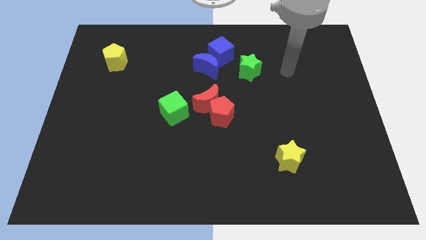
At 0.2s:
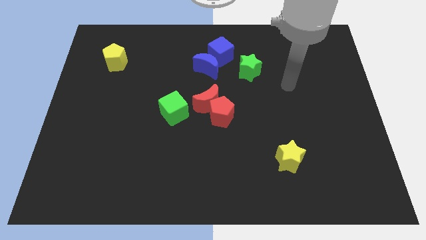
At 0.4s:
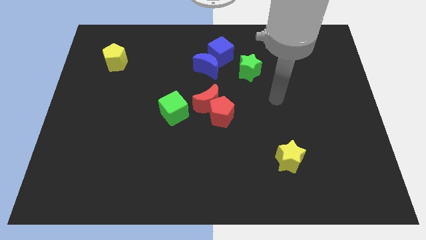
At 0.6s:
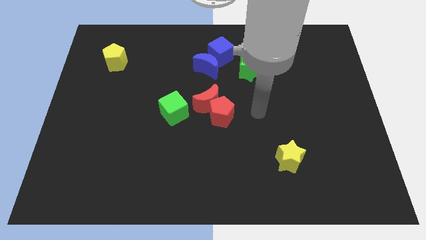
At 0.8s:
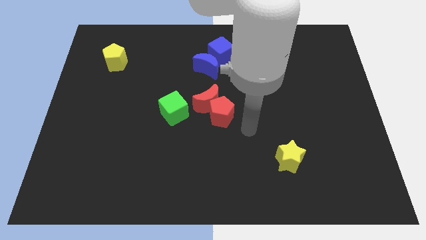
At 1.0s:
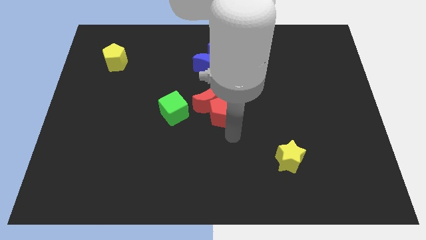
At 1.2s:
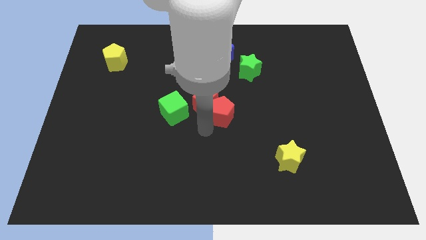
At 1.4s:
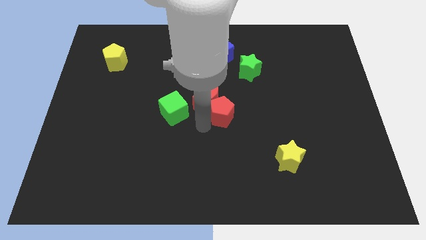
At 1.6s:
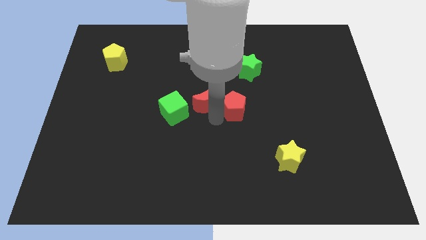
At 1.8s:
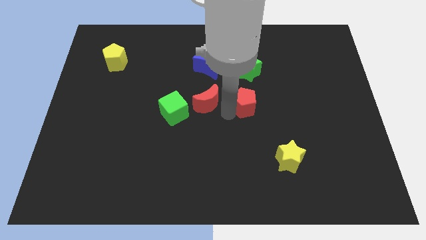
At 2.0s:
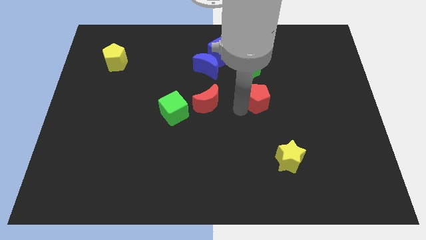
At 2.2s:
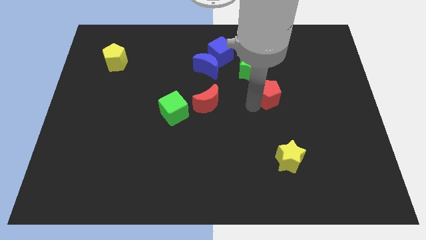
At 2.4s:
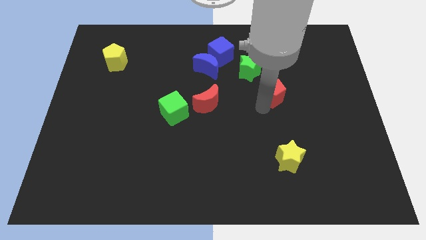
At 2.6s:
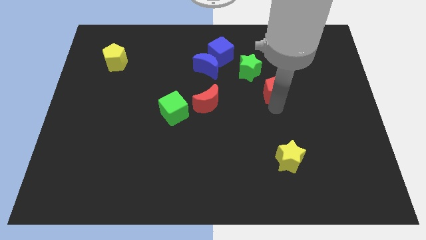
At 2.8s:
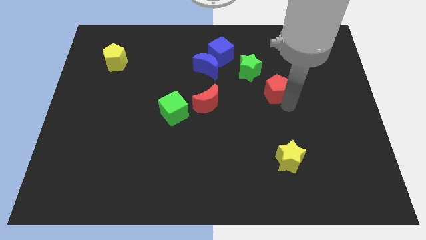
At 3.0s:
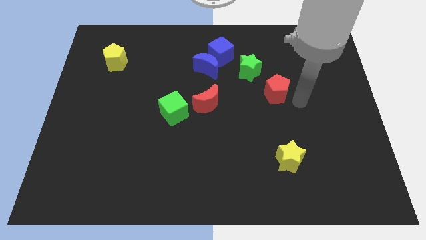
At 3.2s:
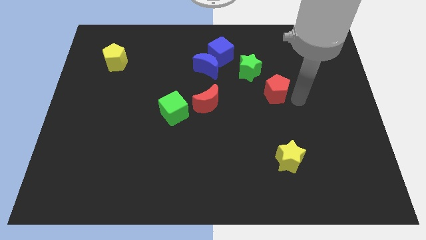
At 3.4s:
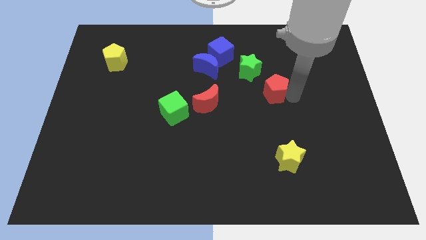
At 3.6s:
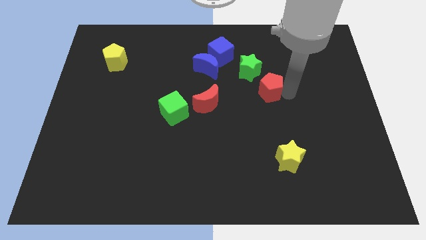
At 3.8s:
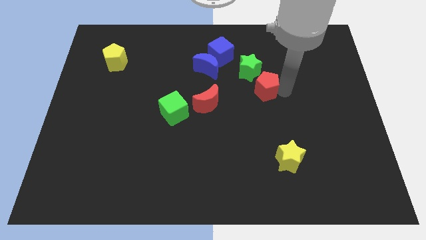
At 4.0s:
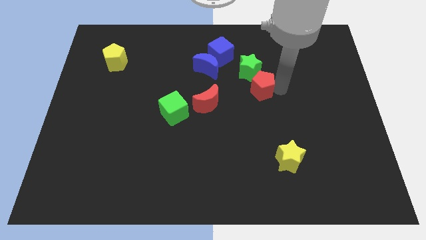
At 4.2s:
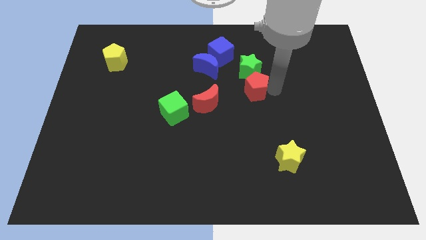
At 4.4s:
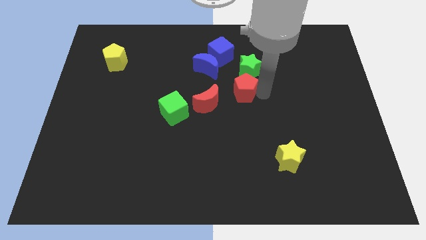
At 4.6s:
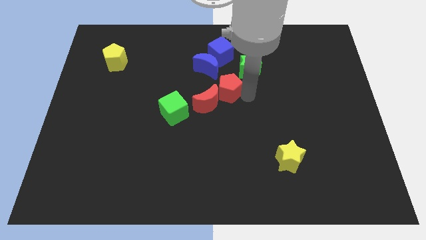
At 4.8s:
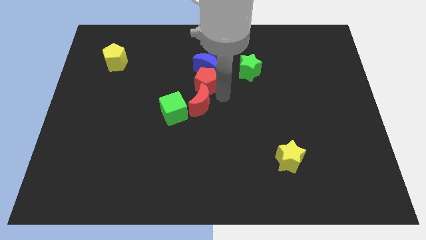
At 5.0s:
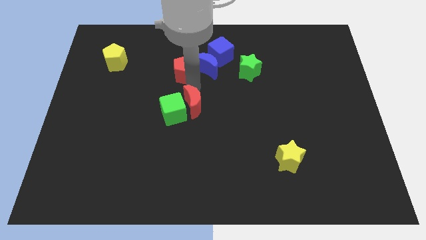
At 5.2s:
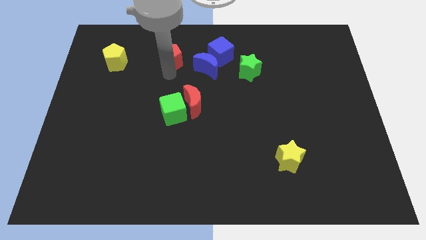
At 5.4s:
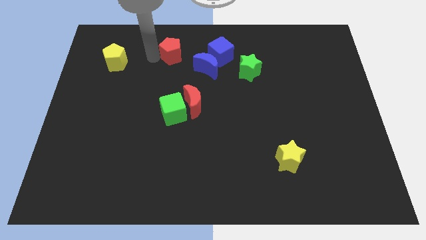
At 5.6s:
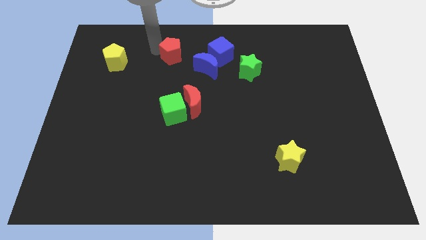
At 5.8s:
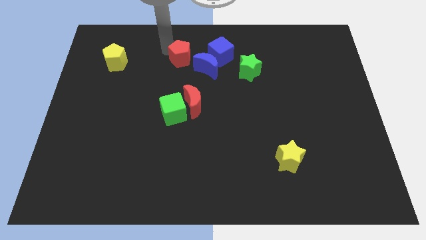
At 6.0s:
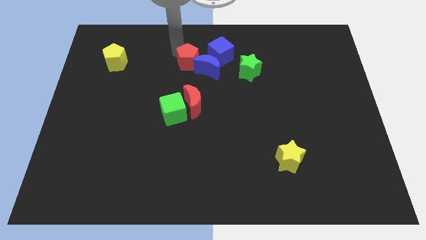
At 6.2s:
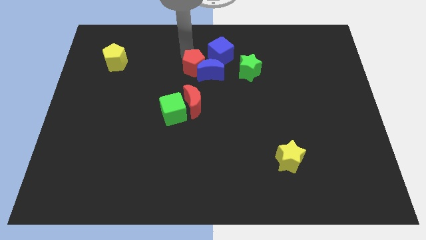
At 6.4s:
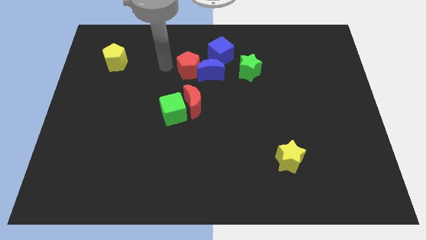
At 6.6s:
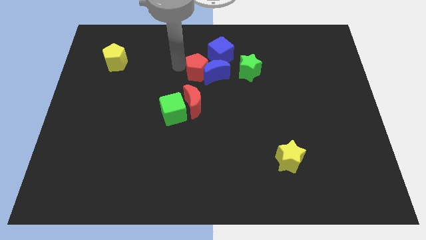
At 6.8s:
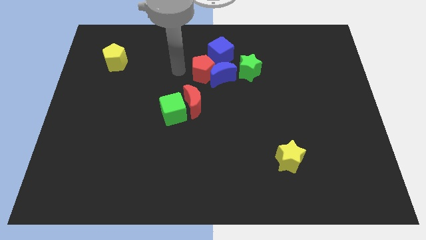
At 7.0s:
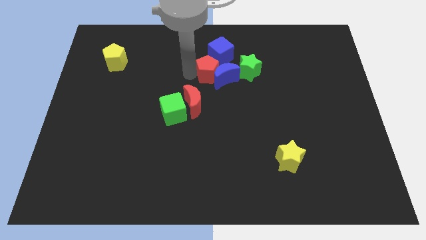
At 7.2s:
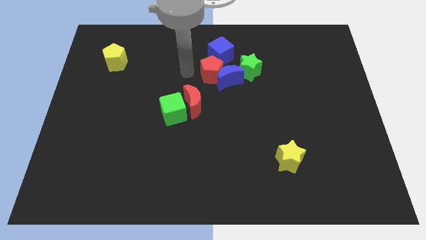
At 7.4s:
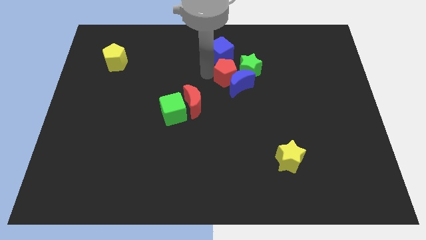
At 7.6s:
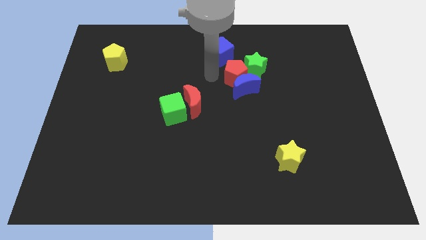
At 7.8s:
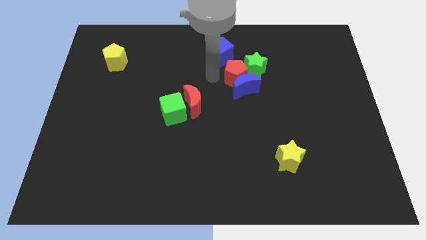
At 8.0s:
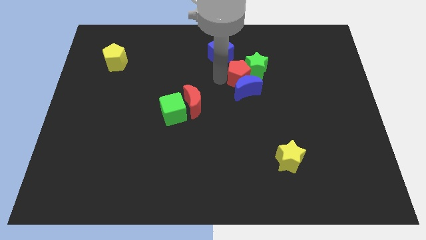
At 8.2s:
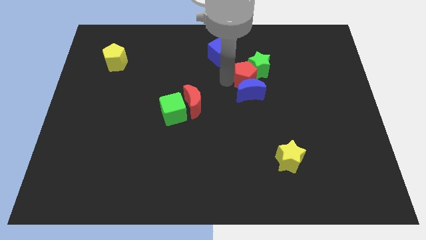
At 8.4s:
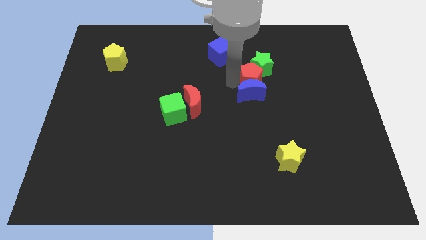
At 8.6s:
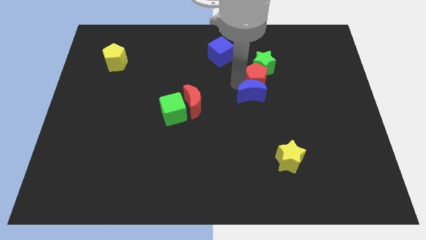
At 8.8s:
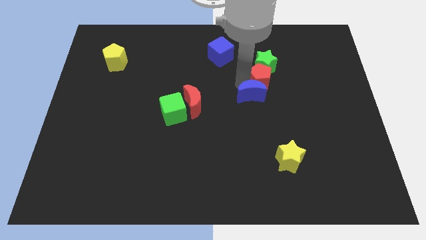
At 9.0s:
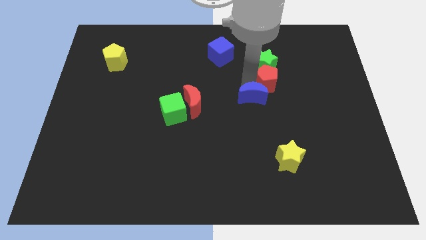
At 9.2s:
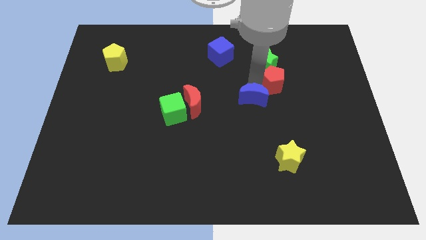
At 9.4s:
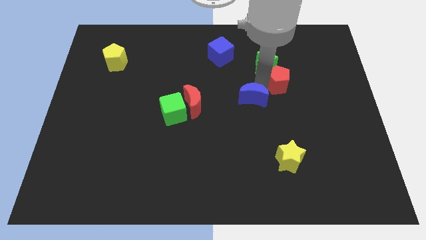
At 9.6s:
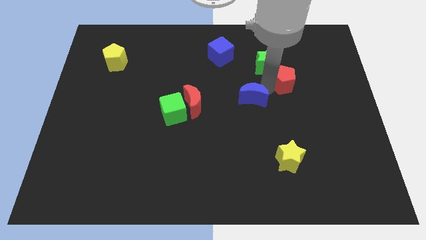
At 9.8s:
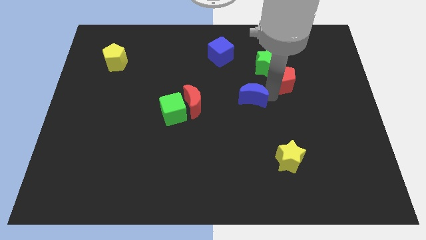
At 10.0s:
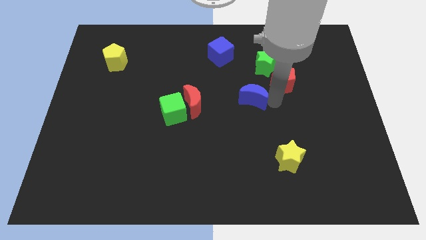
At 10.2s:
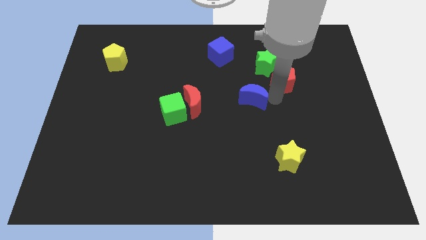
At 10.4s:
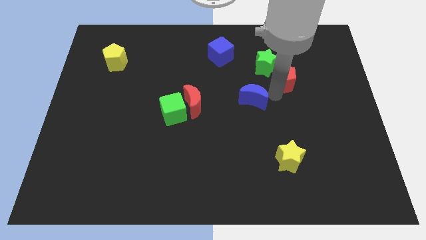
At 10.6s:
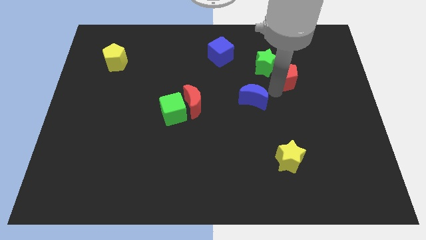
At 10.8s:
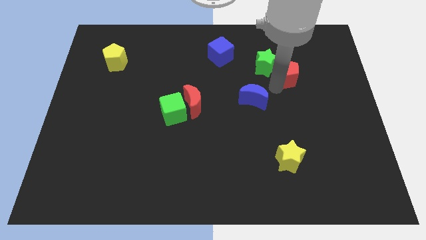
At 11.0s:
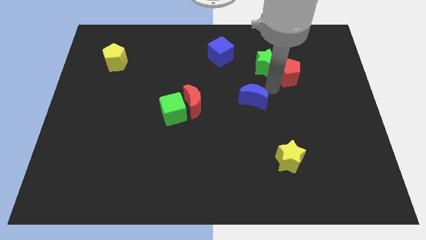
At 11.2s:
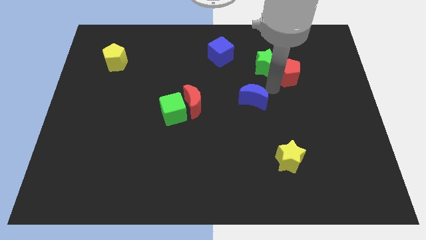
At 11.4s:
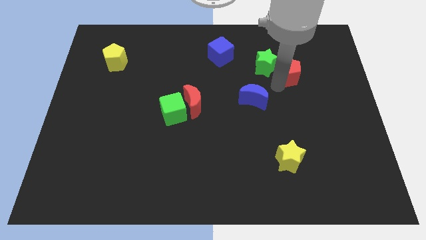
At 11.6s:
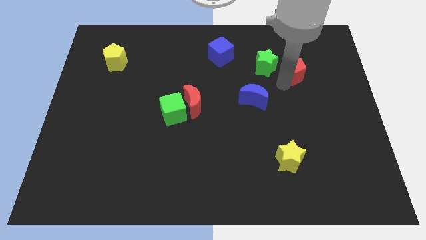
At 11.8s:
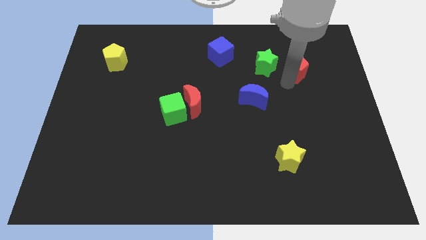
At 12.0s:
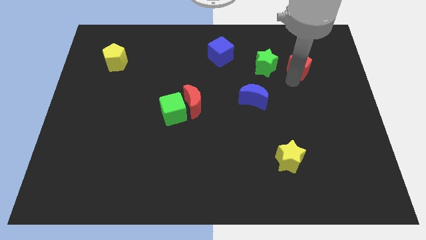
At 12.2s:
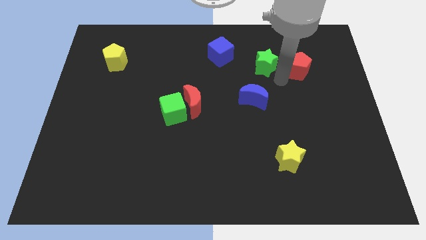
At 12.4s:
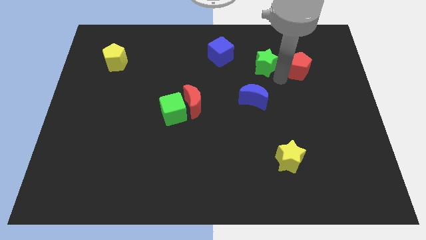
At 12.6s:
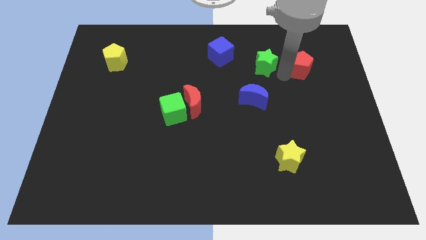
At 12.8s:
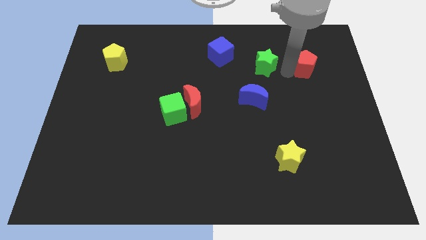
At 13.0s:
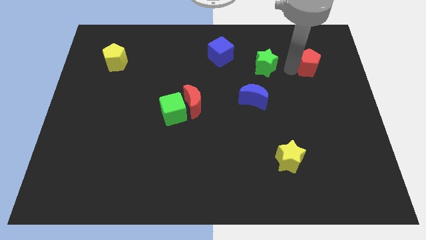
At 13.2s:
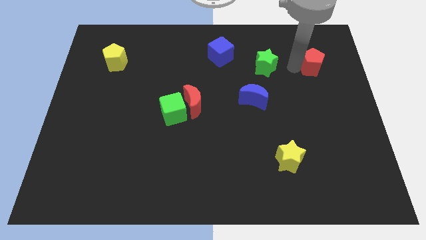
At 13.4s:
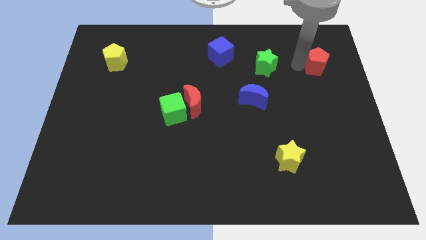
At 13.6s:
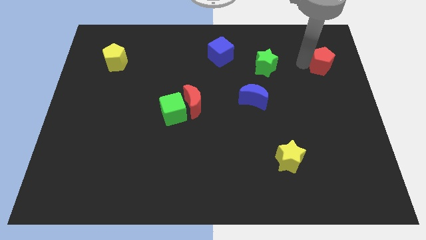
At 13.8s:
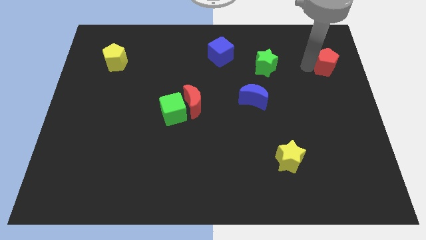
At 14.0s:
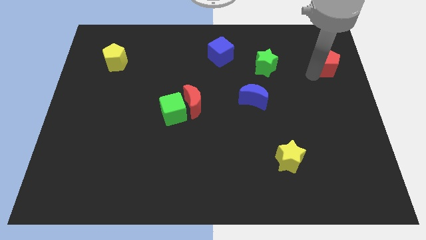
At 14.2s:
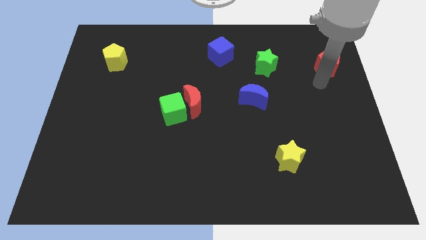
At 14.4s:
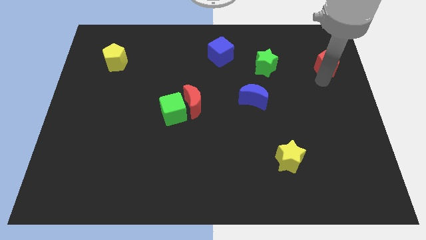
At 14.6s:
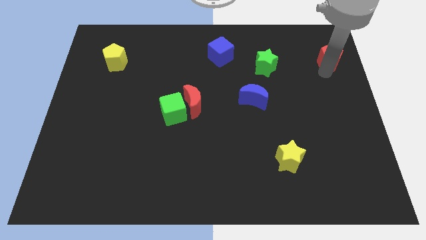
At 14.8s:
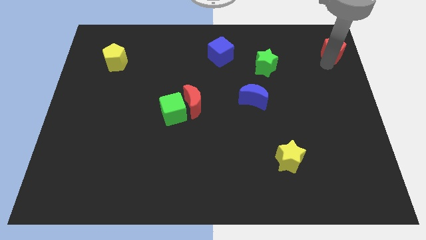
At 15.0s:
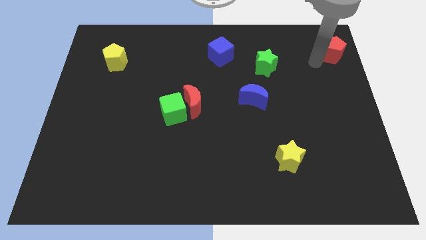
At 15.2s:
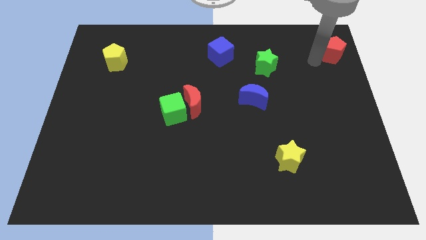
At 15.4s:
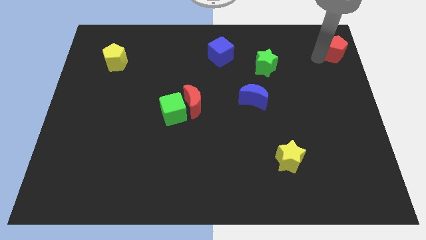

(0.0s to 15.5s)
slide the red pentagon to the top right of the board
